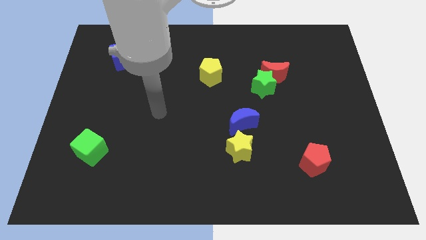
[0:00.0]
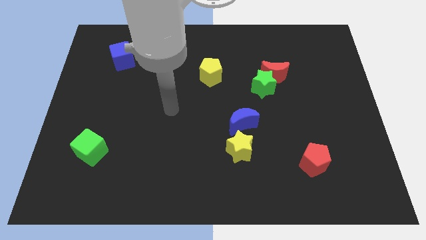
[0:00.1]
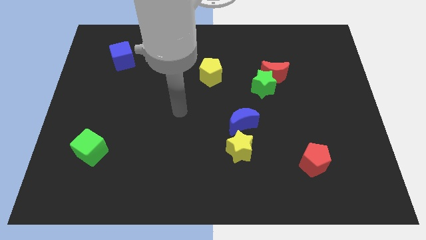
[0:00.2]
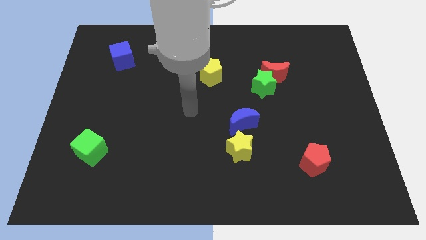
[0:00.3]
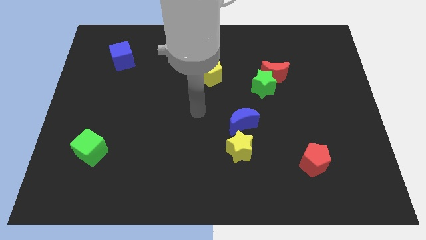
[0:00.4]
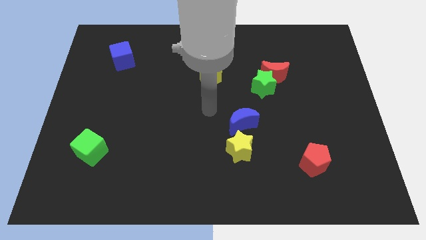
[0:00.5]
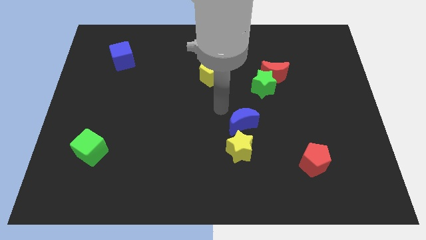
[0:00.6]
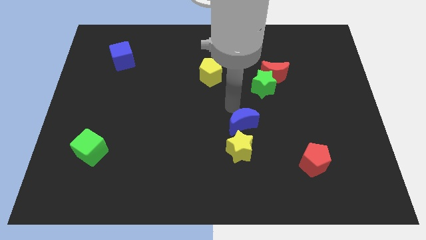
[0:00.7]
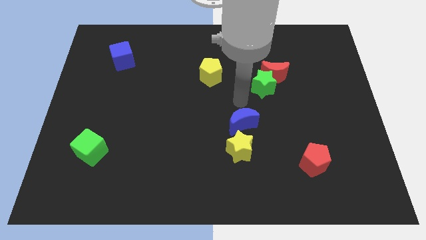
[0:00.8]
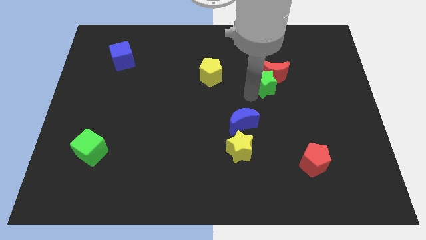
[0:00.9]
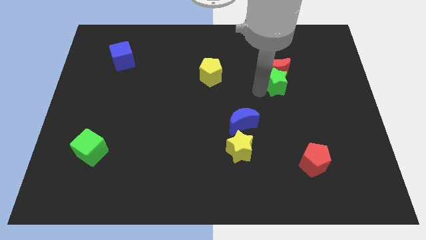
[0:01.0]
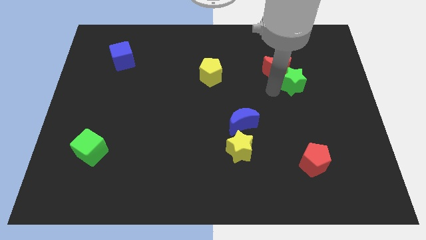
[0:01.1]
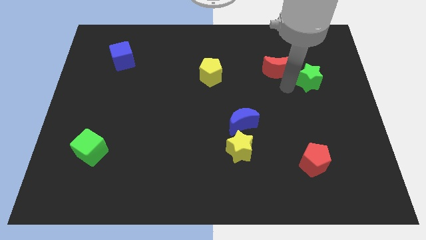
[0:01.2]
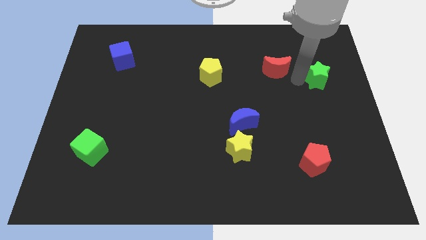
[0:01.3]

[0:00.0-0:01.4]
pull the red moon apart from the green star

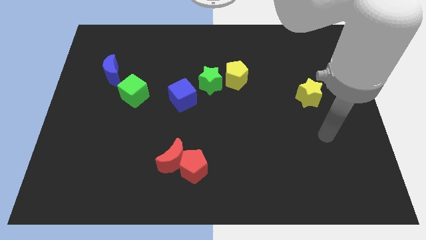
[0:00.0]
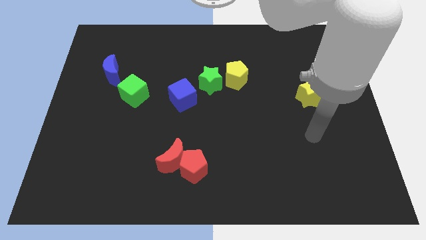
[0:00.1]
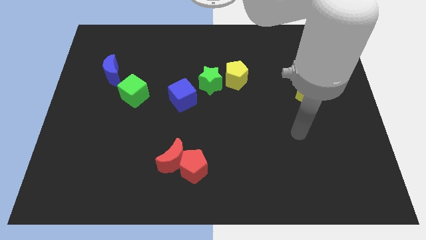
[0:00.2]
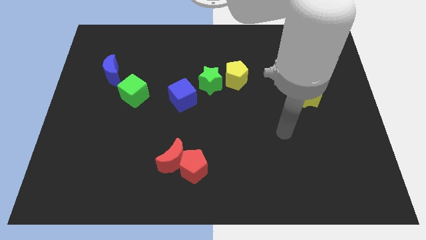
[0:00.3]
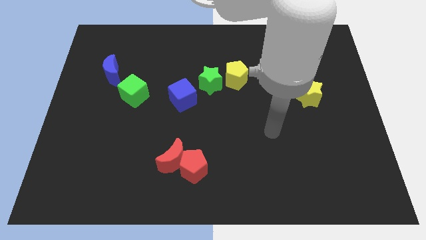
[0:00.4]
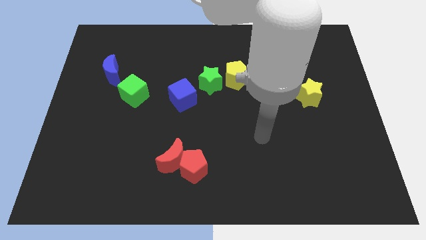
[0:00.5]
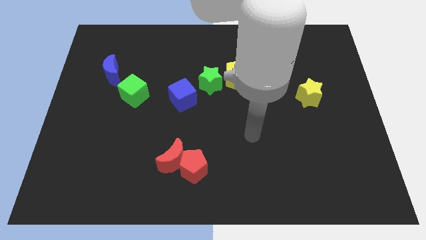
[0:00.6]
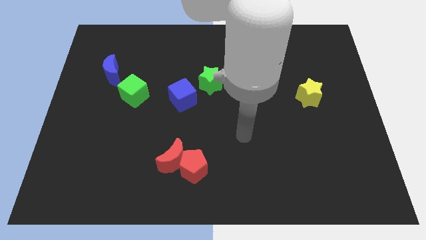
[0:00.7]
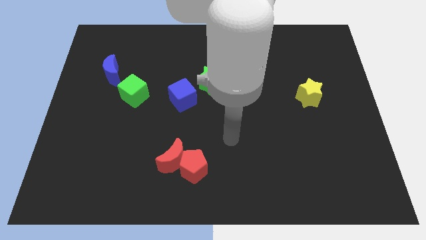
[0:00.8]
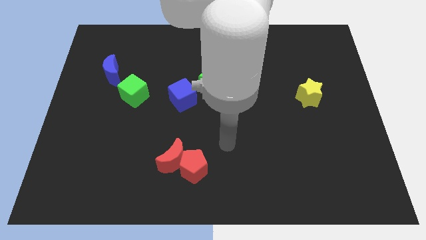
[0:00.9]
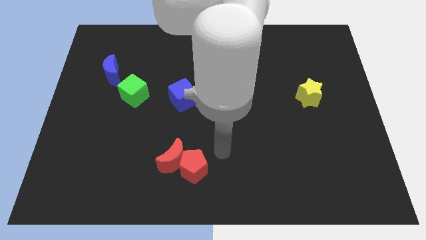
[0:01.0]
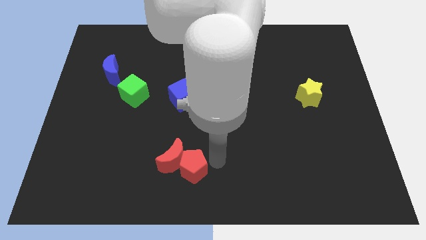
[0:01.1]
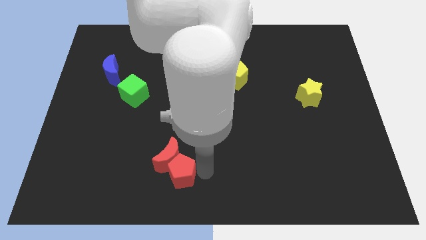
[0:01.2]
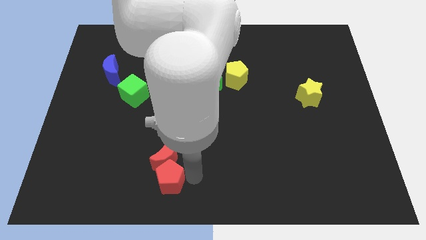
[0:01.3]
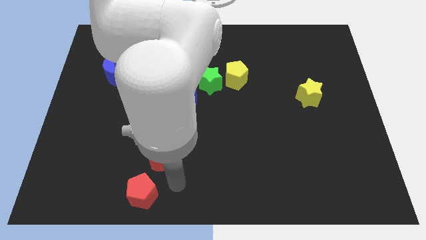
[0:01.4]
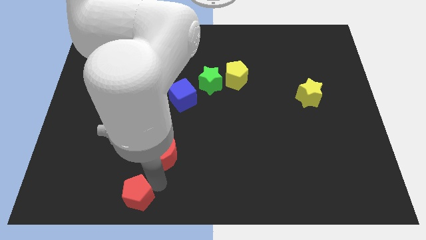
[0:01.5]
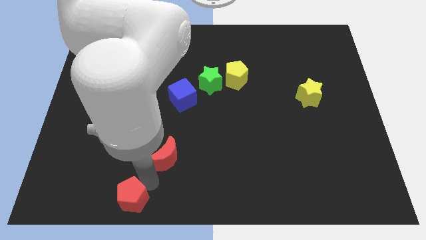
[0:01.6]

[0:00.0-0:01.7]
pull the red moon apart from the red pentagon

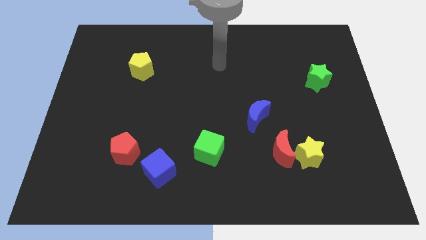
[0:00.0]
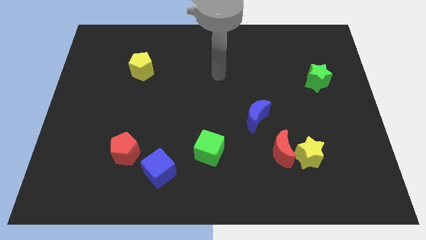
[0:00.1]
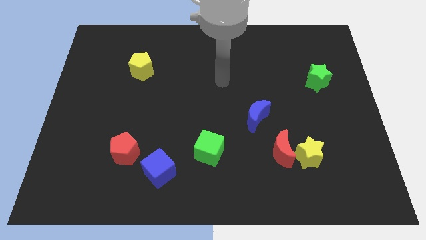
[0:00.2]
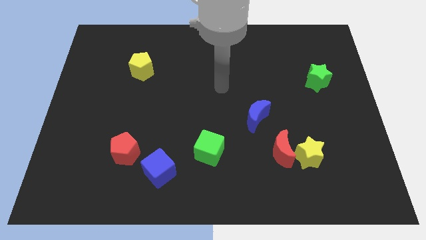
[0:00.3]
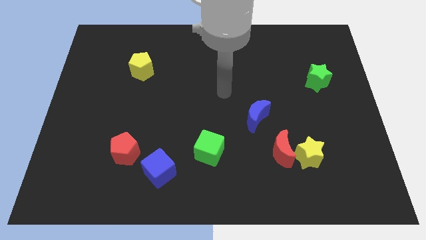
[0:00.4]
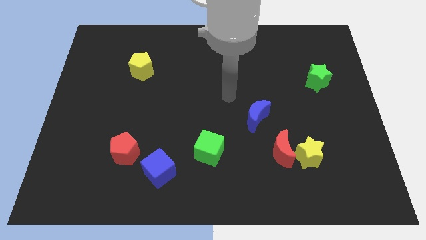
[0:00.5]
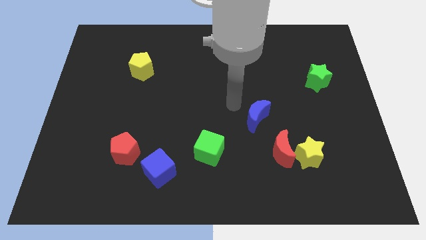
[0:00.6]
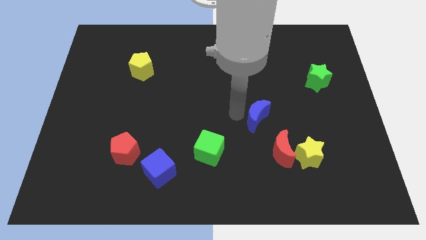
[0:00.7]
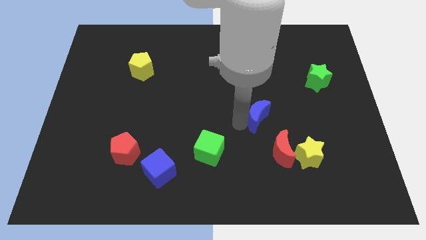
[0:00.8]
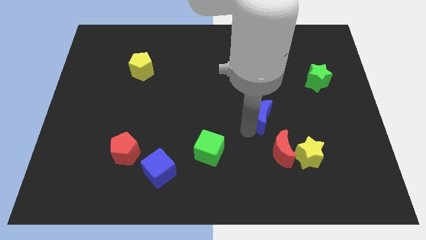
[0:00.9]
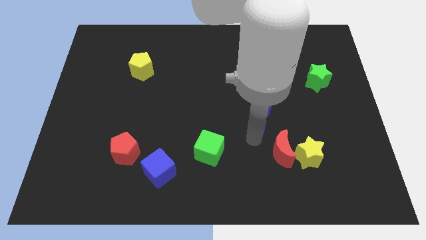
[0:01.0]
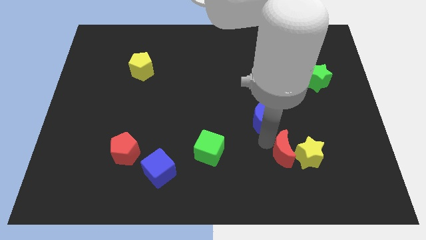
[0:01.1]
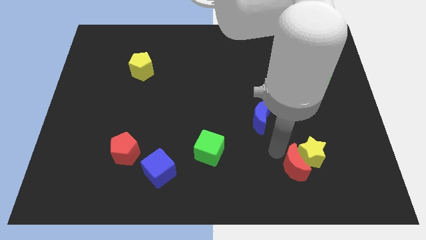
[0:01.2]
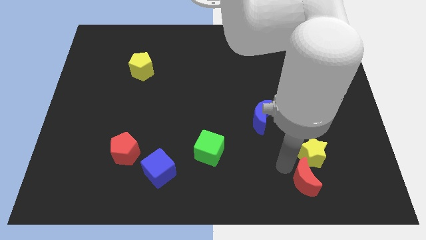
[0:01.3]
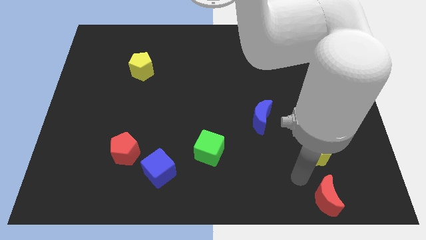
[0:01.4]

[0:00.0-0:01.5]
pull the yellow star apart from the red moon

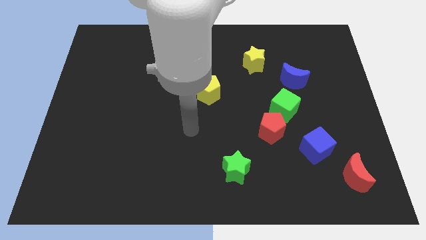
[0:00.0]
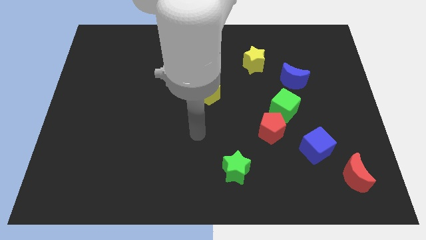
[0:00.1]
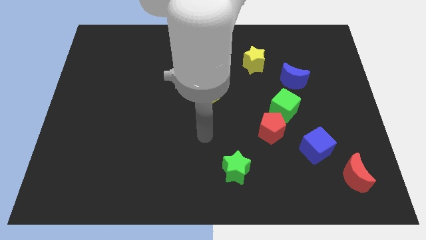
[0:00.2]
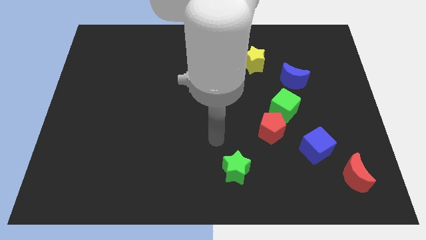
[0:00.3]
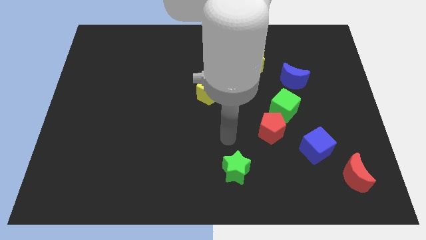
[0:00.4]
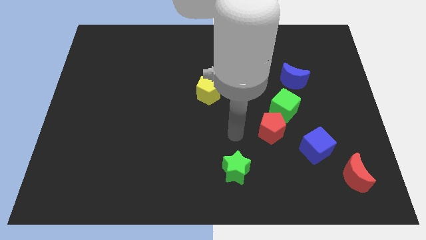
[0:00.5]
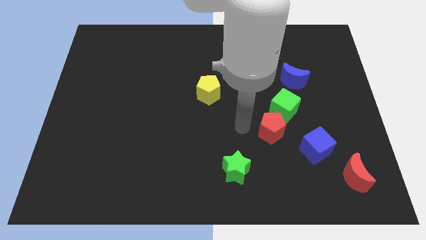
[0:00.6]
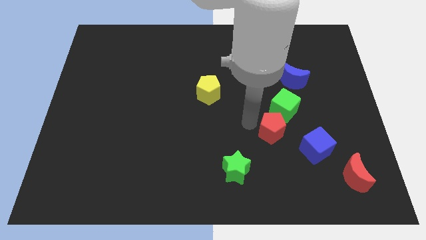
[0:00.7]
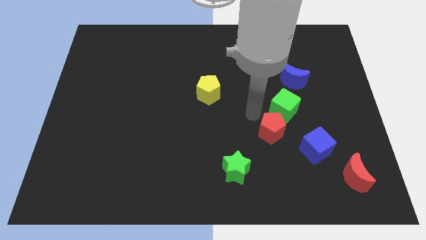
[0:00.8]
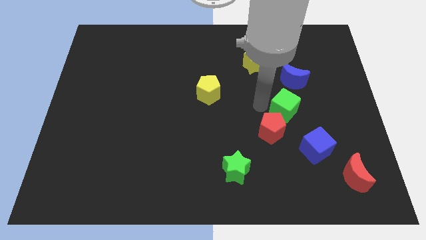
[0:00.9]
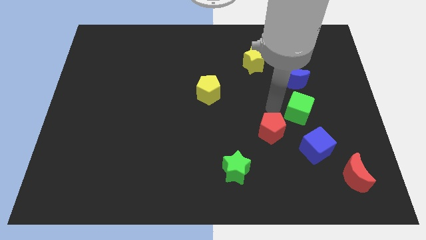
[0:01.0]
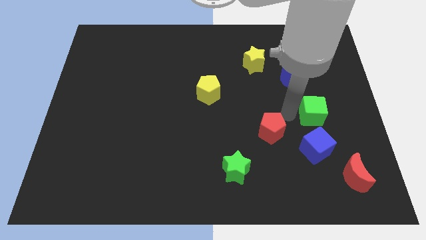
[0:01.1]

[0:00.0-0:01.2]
move the red pentagon away from the green cube

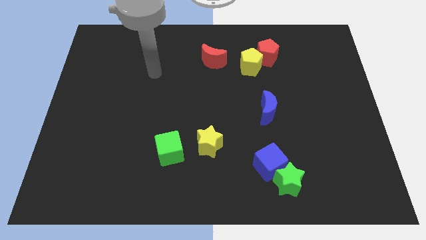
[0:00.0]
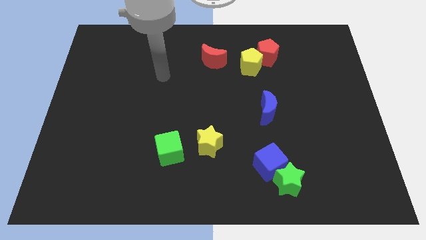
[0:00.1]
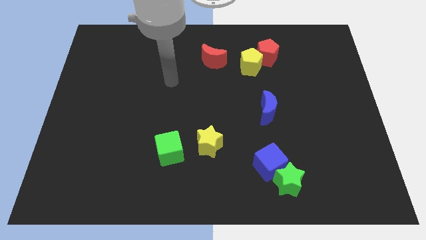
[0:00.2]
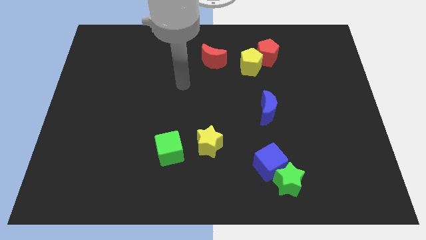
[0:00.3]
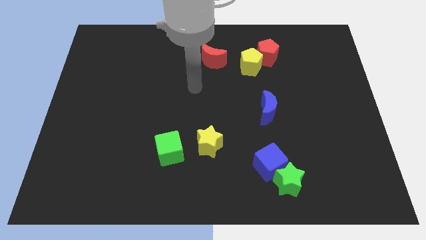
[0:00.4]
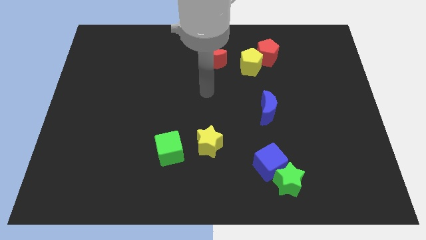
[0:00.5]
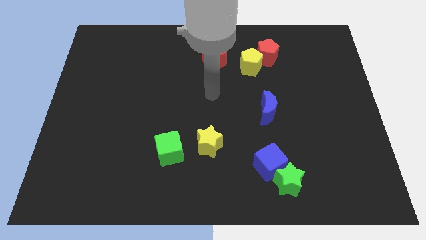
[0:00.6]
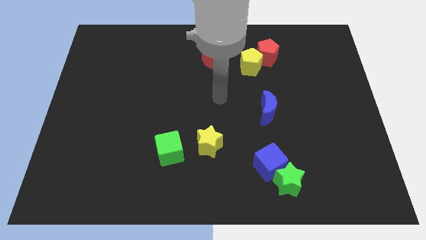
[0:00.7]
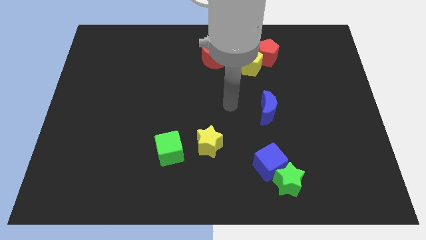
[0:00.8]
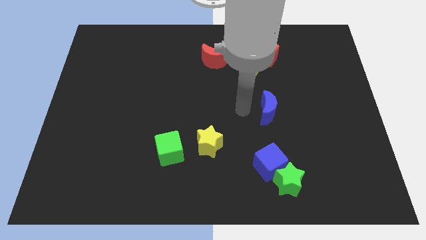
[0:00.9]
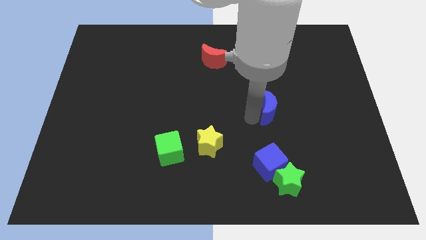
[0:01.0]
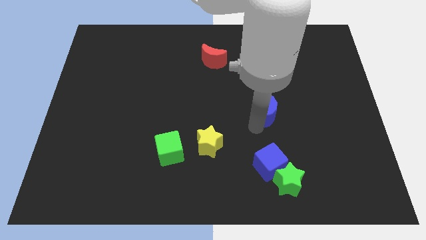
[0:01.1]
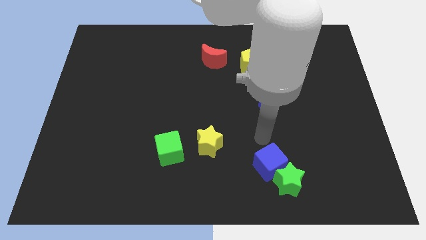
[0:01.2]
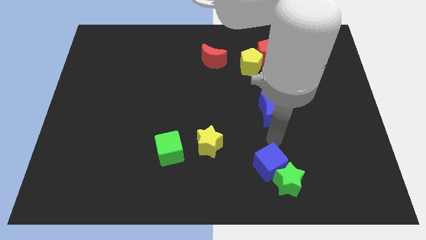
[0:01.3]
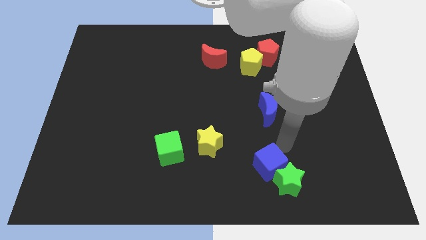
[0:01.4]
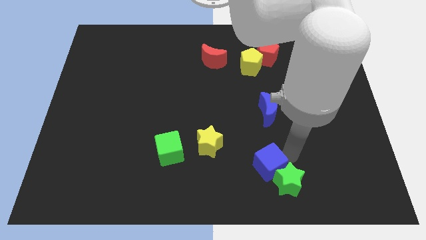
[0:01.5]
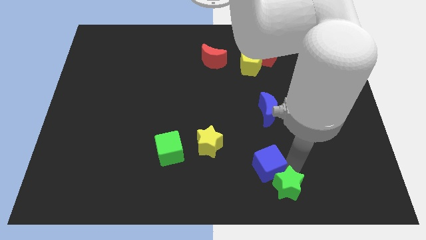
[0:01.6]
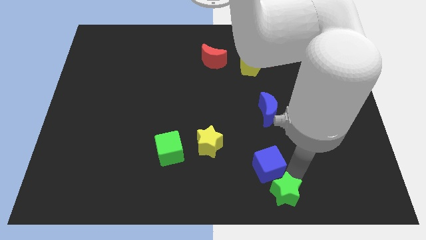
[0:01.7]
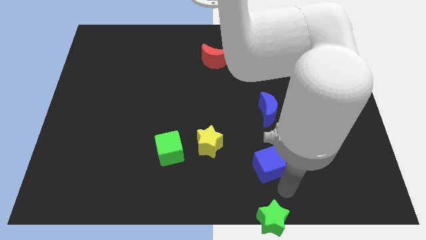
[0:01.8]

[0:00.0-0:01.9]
move the blue cube away from the green star

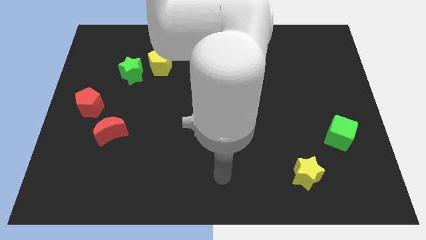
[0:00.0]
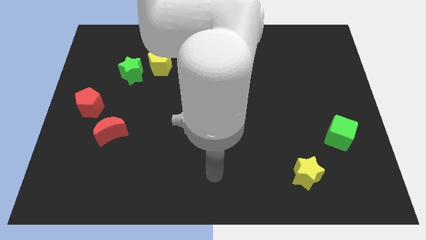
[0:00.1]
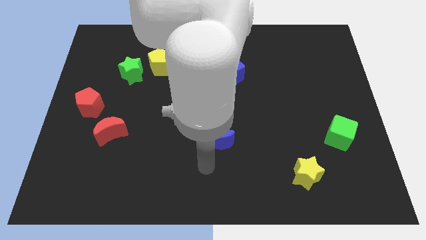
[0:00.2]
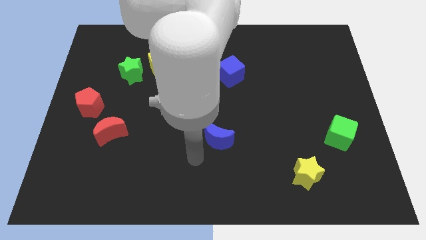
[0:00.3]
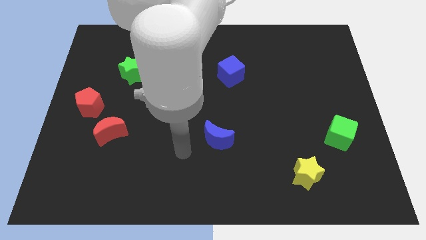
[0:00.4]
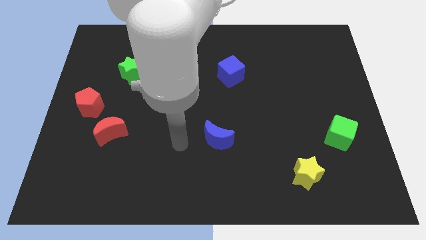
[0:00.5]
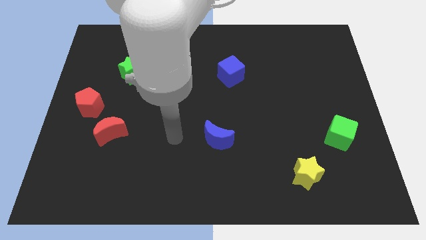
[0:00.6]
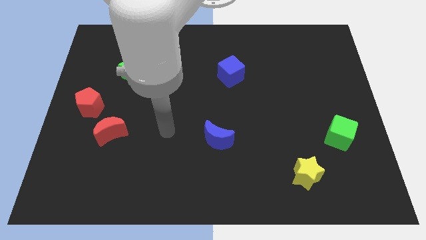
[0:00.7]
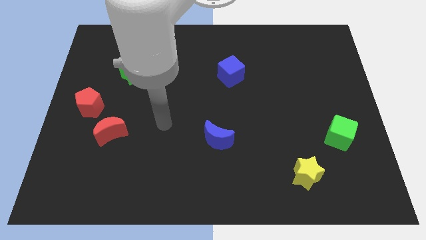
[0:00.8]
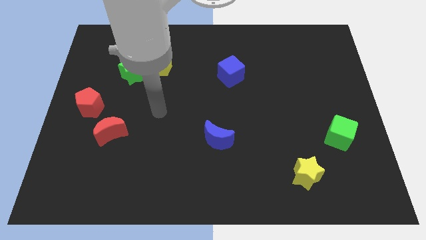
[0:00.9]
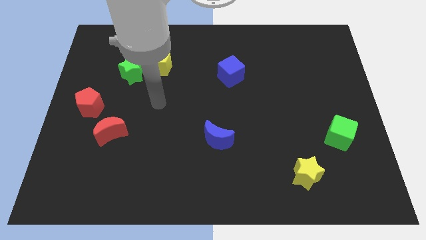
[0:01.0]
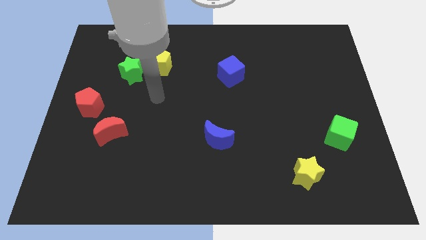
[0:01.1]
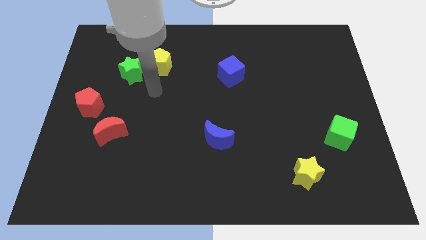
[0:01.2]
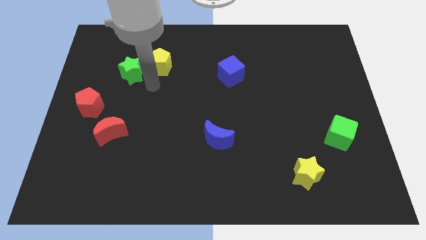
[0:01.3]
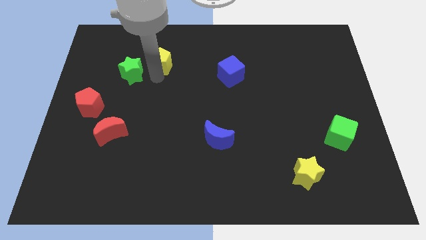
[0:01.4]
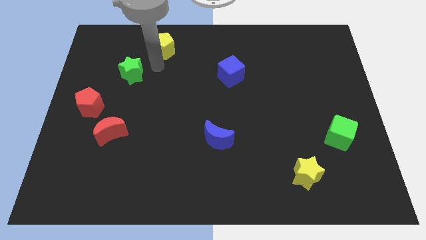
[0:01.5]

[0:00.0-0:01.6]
pull the green star apart from the yellow pentagon

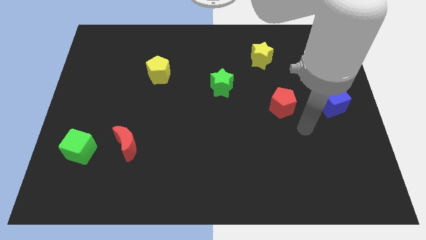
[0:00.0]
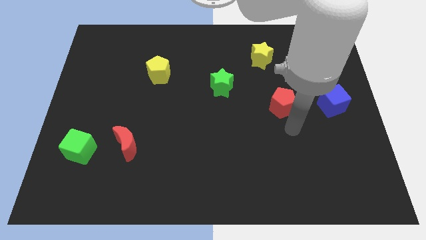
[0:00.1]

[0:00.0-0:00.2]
move the red moon away from the green cube
